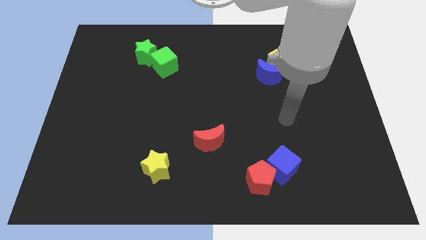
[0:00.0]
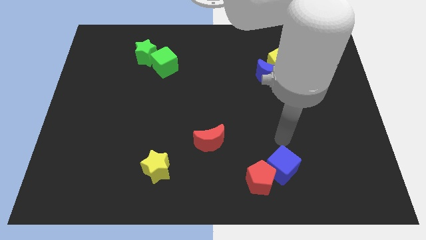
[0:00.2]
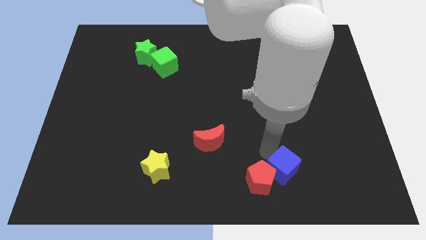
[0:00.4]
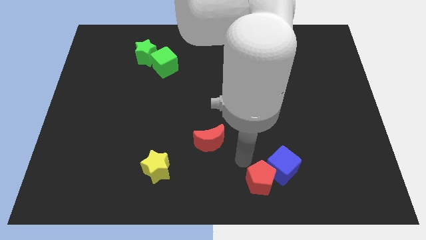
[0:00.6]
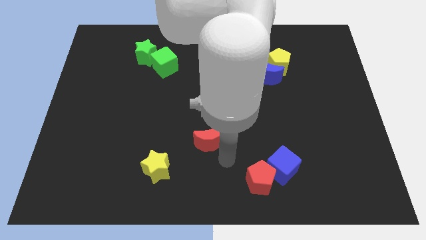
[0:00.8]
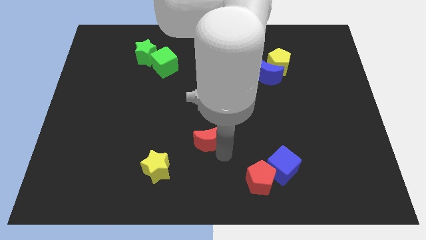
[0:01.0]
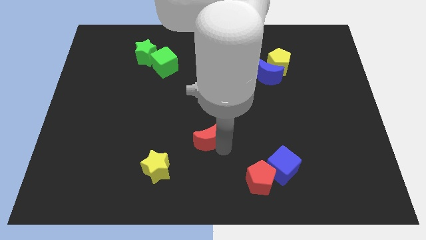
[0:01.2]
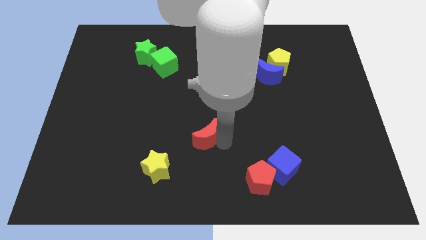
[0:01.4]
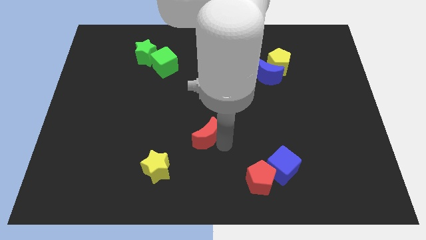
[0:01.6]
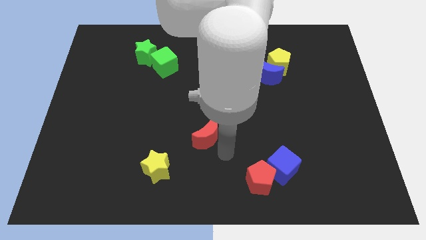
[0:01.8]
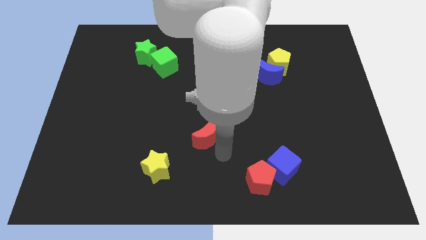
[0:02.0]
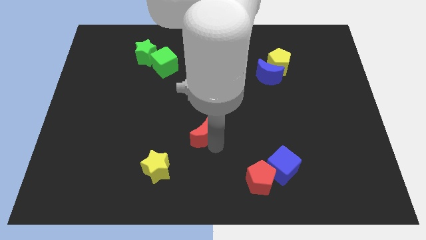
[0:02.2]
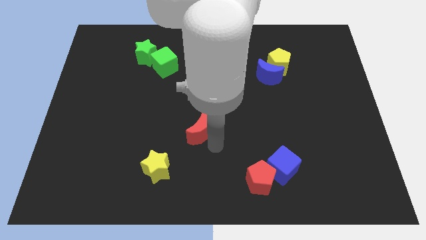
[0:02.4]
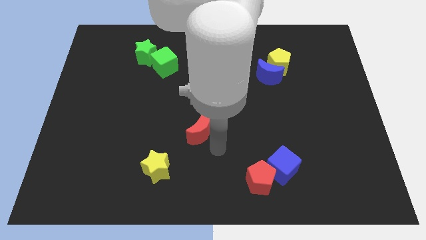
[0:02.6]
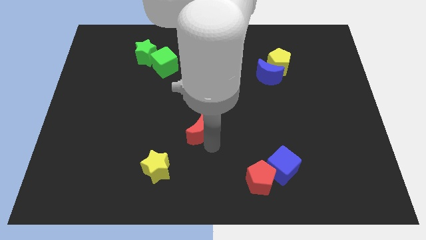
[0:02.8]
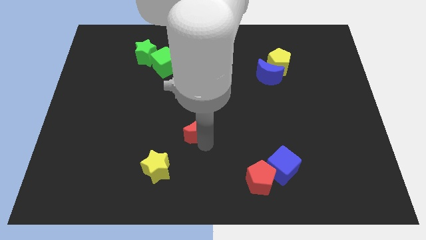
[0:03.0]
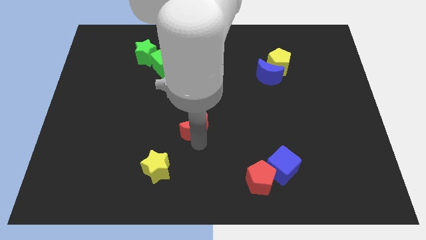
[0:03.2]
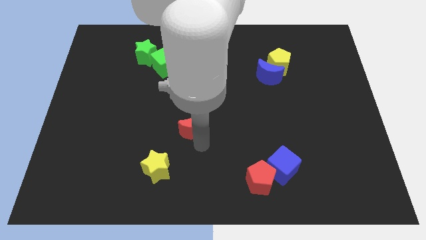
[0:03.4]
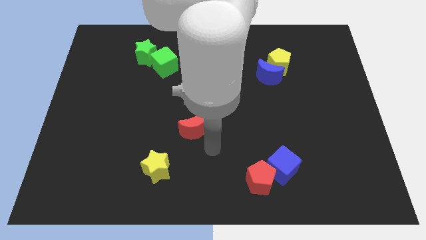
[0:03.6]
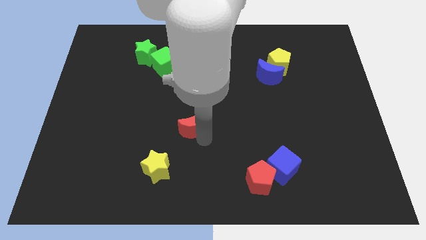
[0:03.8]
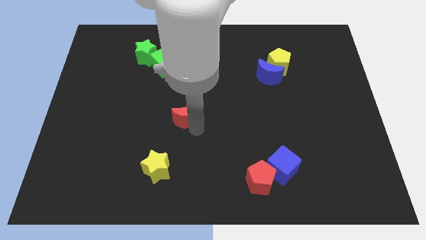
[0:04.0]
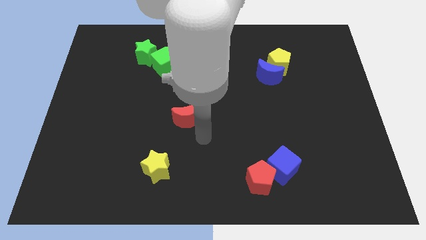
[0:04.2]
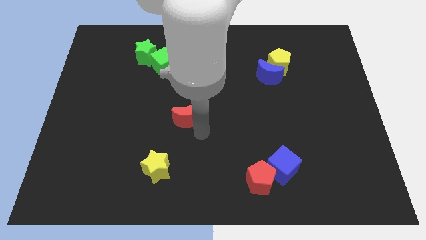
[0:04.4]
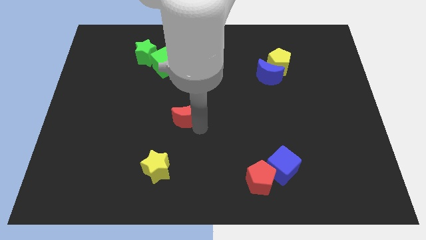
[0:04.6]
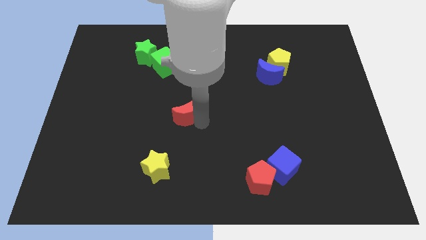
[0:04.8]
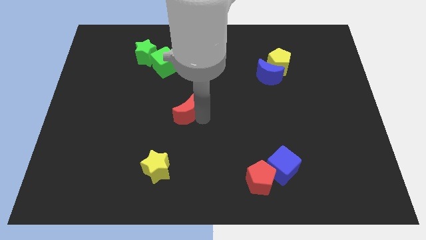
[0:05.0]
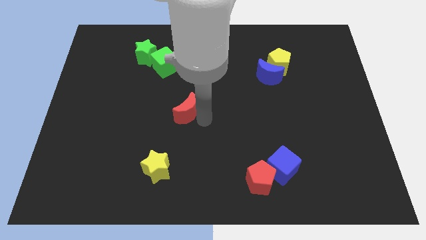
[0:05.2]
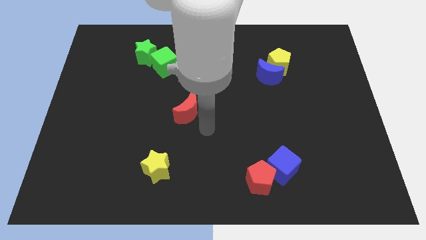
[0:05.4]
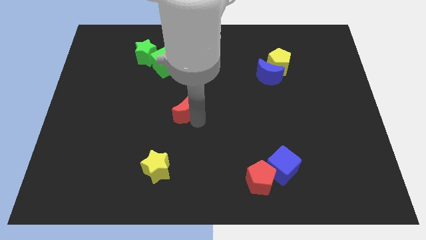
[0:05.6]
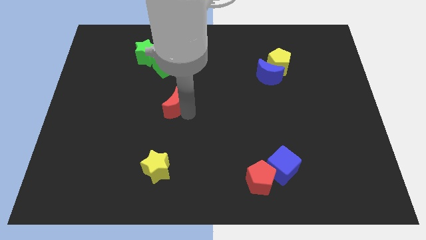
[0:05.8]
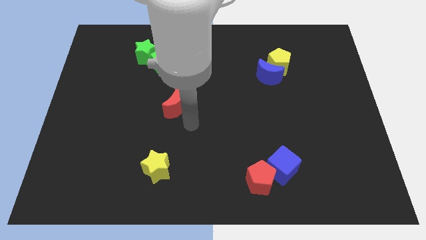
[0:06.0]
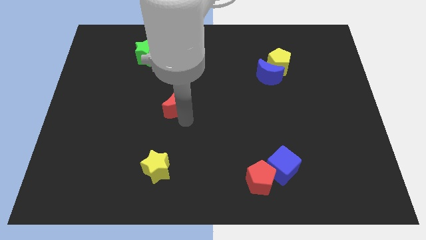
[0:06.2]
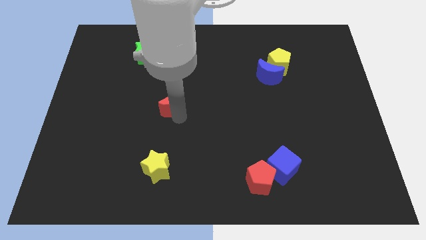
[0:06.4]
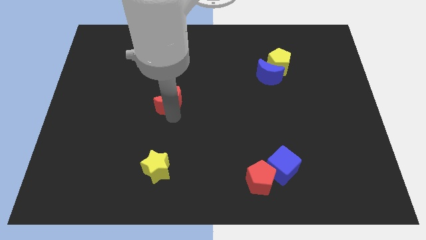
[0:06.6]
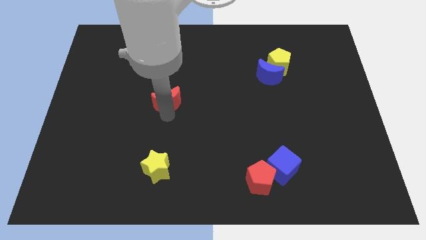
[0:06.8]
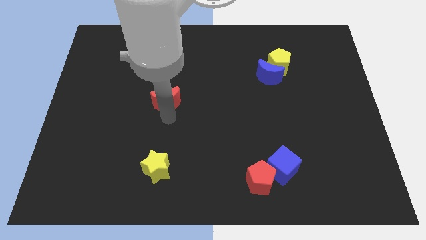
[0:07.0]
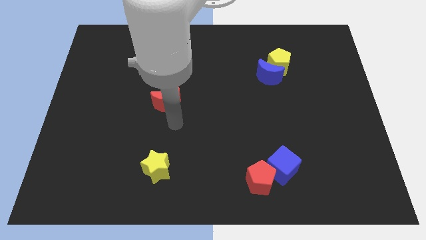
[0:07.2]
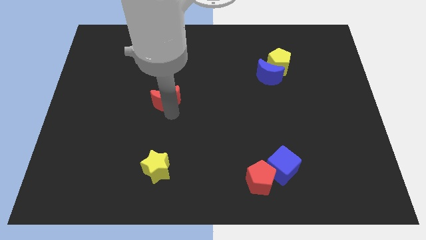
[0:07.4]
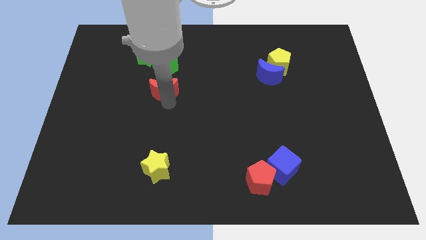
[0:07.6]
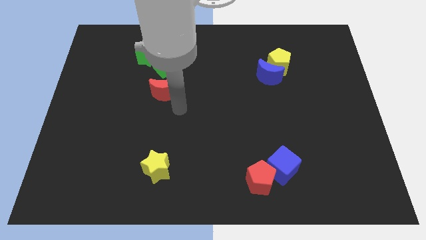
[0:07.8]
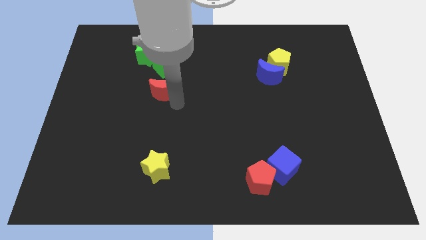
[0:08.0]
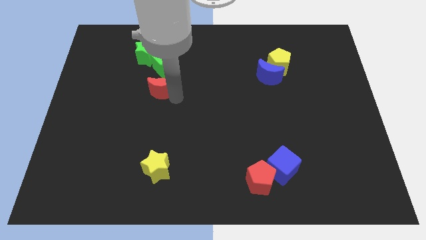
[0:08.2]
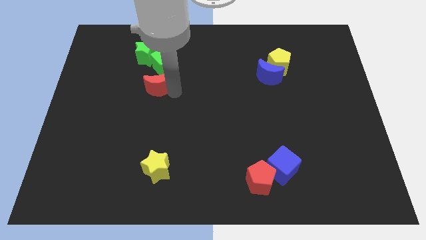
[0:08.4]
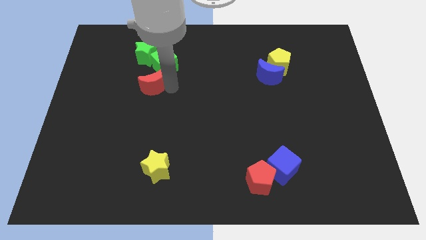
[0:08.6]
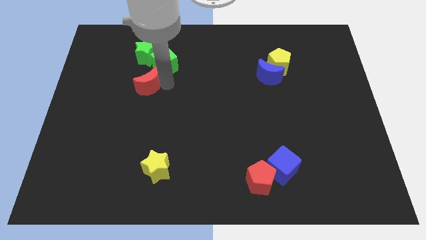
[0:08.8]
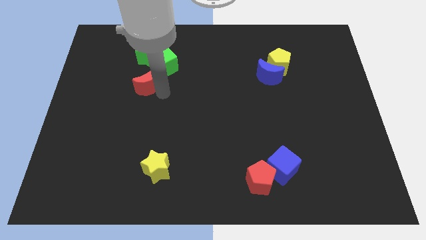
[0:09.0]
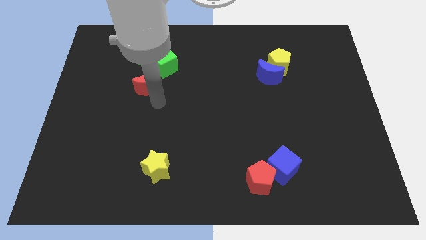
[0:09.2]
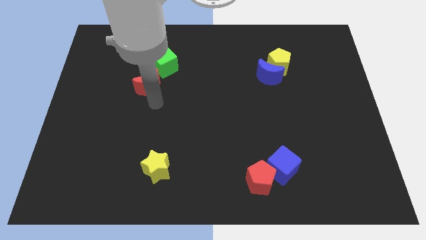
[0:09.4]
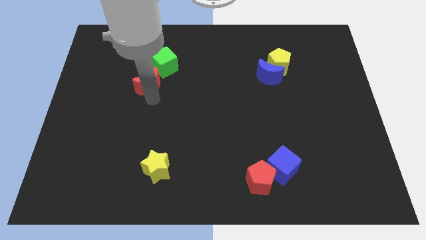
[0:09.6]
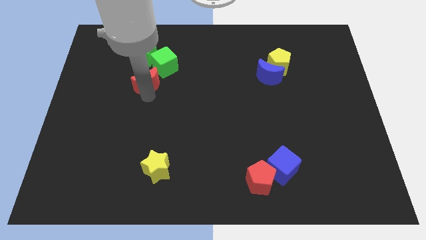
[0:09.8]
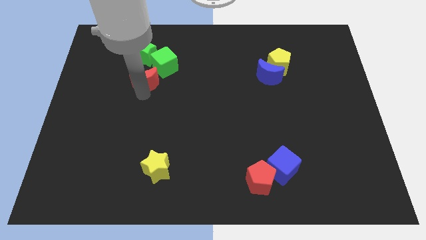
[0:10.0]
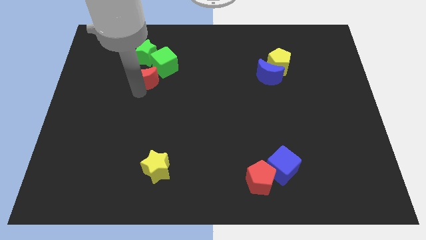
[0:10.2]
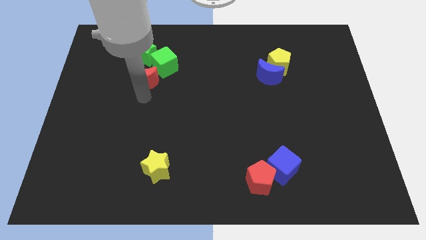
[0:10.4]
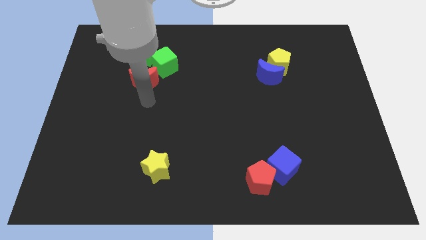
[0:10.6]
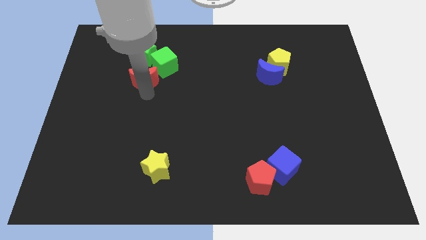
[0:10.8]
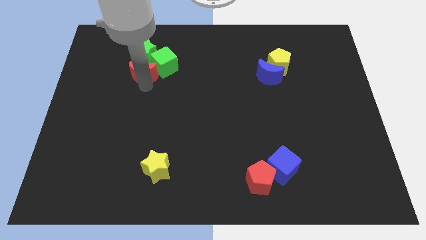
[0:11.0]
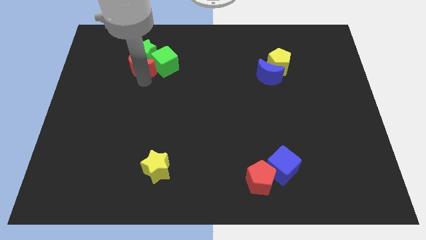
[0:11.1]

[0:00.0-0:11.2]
slide the red moon next to the green star

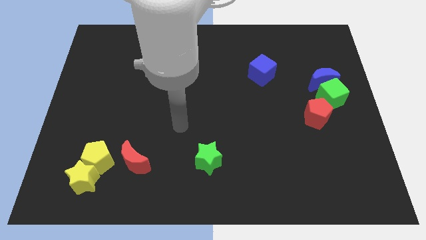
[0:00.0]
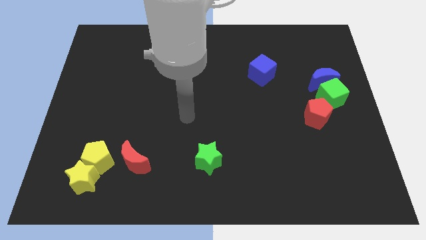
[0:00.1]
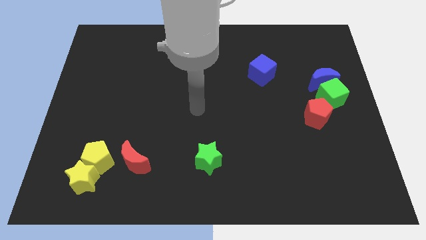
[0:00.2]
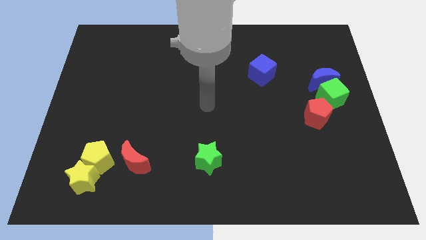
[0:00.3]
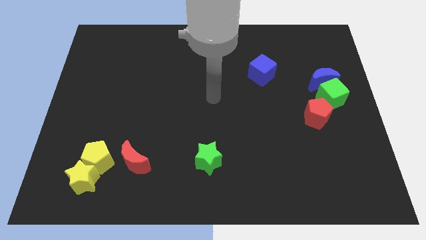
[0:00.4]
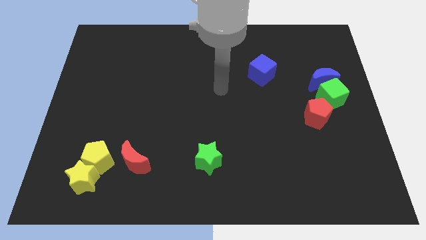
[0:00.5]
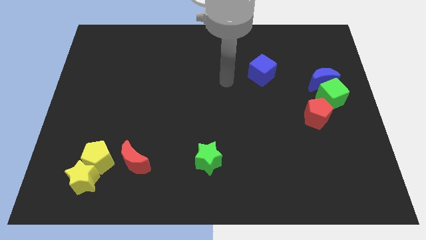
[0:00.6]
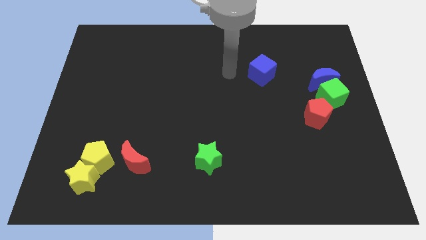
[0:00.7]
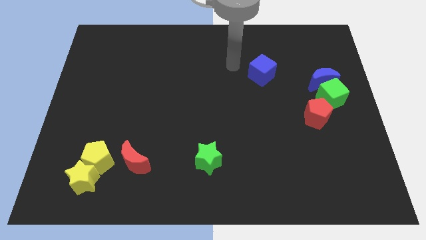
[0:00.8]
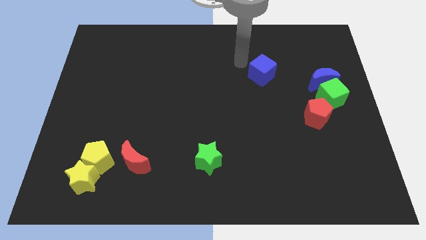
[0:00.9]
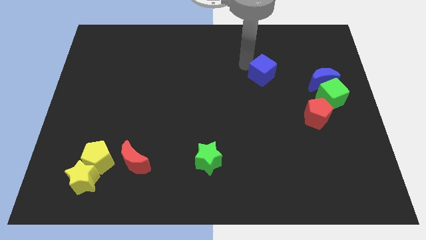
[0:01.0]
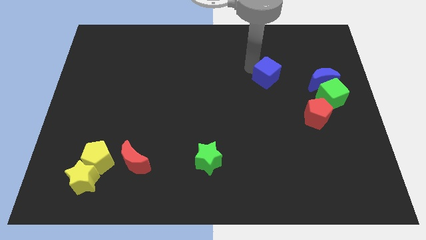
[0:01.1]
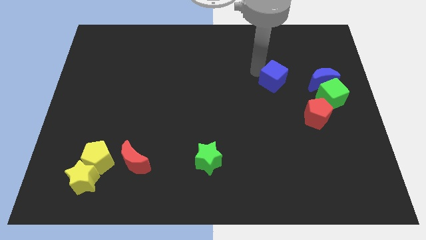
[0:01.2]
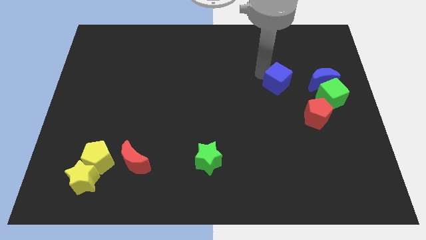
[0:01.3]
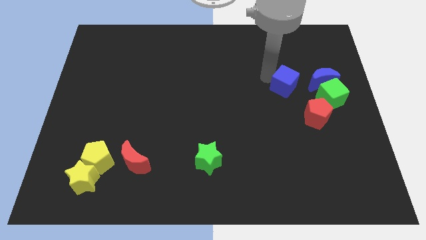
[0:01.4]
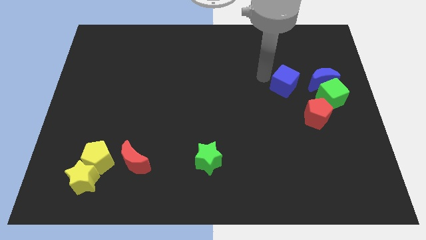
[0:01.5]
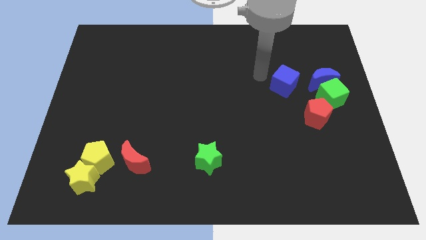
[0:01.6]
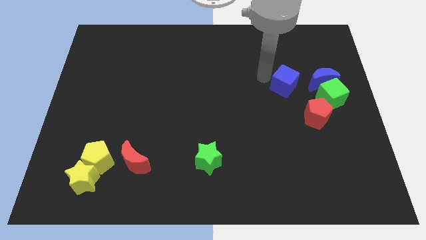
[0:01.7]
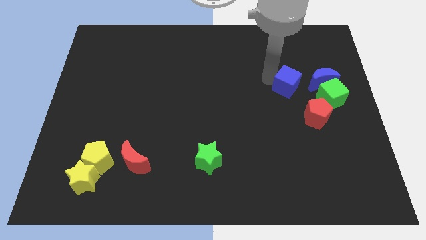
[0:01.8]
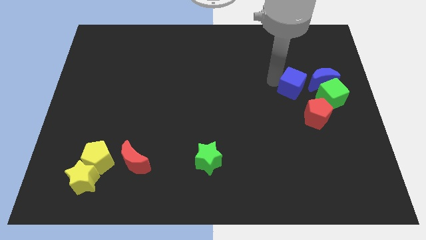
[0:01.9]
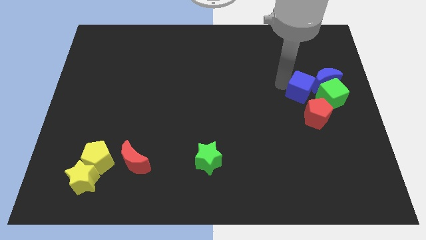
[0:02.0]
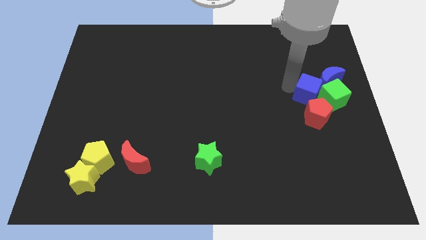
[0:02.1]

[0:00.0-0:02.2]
put the blue cube next to the green cube
